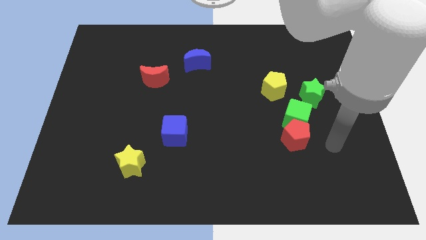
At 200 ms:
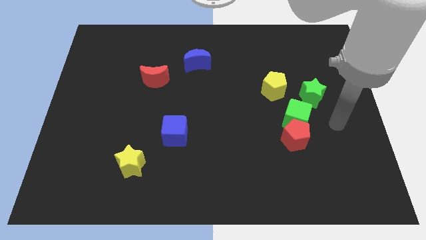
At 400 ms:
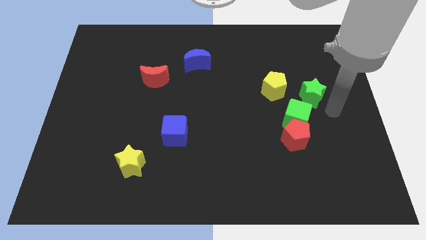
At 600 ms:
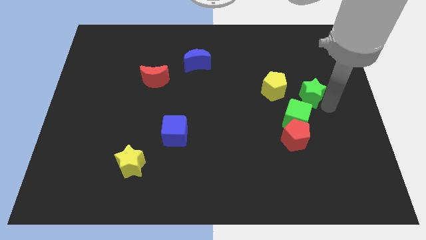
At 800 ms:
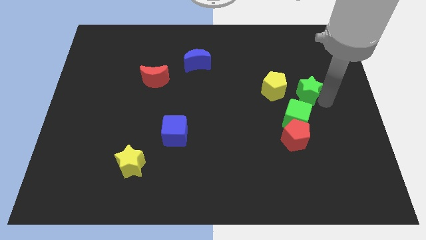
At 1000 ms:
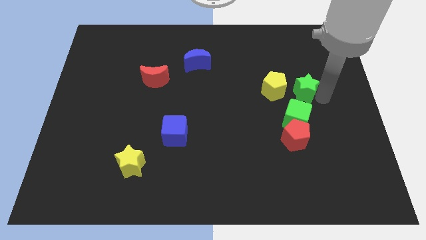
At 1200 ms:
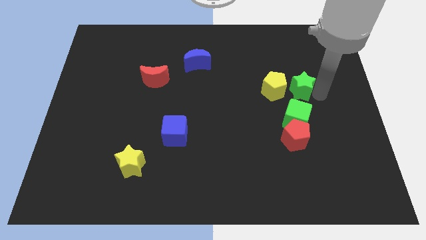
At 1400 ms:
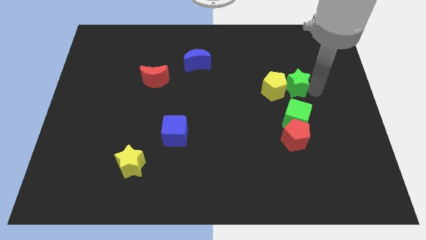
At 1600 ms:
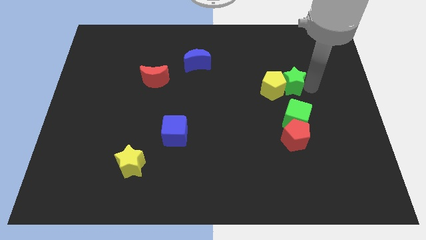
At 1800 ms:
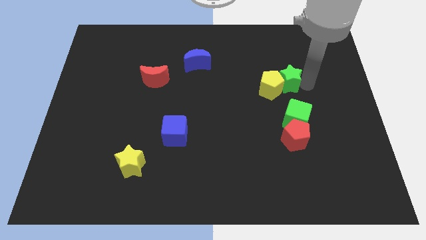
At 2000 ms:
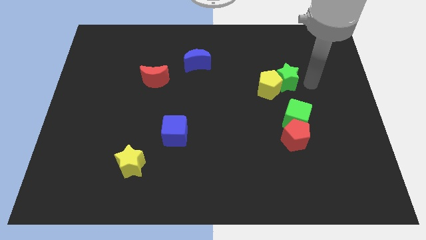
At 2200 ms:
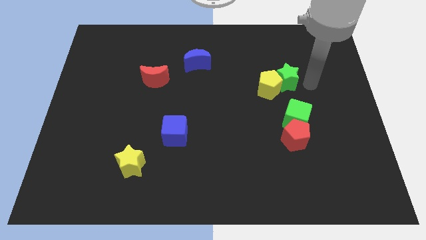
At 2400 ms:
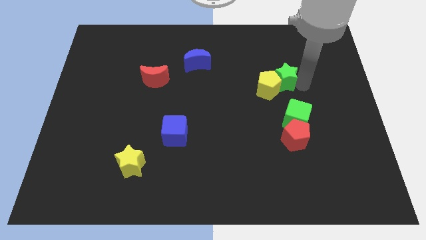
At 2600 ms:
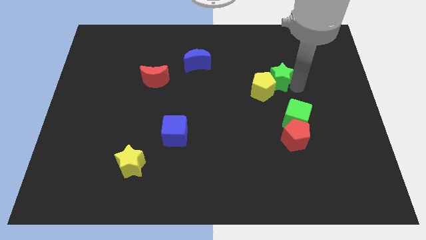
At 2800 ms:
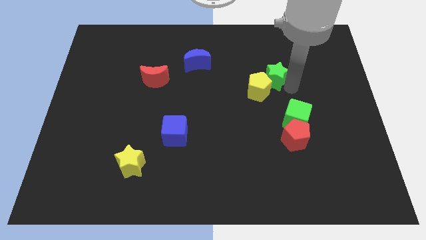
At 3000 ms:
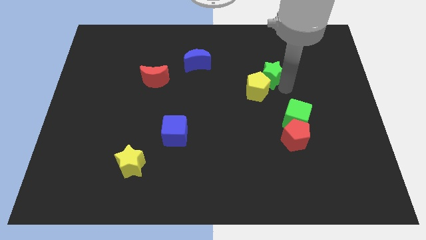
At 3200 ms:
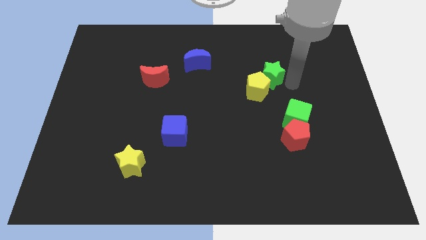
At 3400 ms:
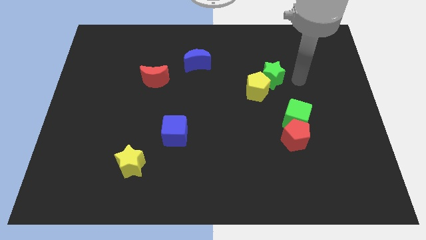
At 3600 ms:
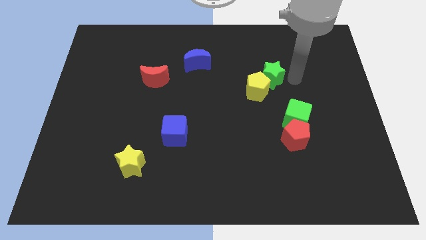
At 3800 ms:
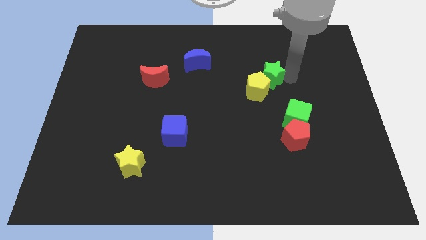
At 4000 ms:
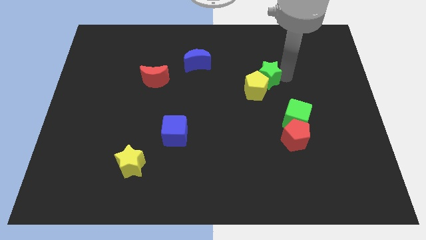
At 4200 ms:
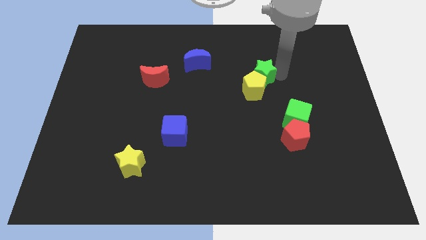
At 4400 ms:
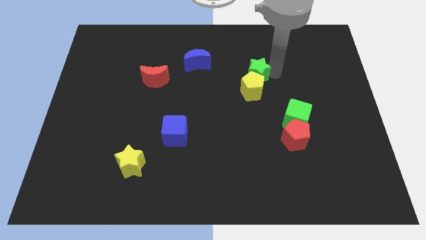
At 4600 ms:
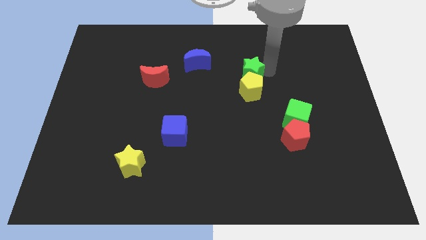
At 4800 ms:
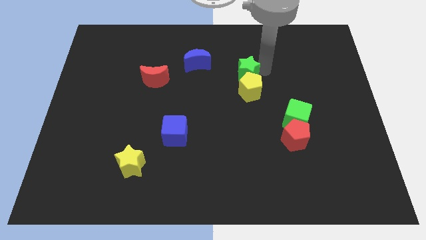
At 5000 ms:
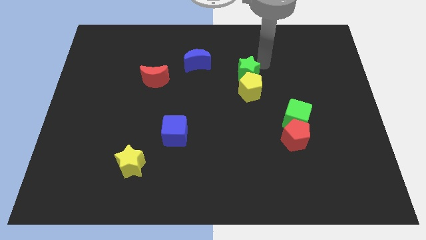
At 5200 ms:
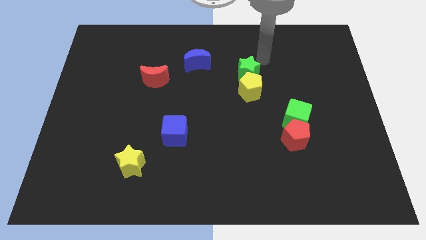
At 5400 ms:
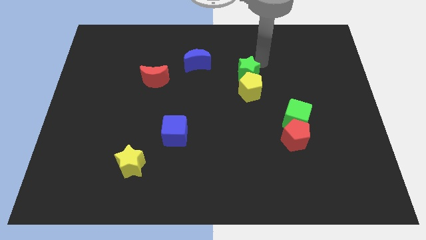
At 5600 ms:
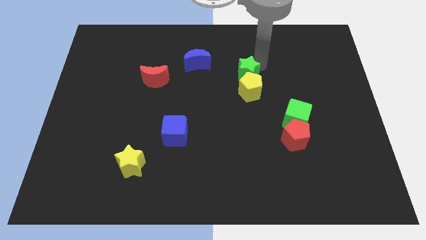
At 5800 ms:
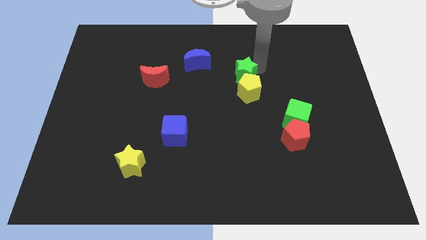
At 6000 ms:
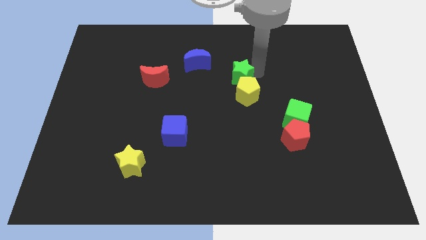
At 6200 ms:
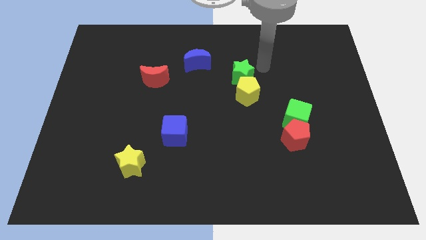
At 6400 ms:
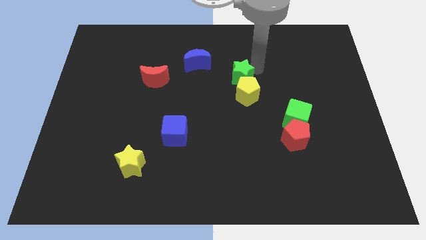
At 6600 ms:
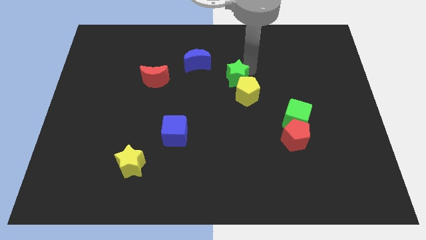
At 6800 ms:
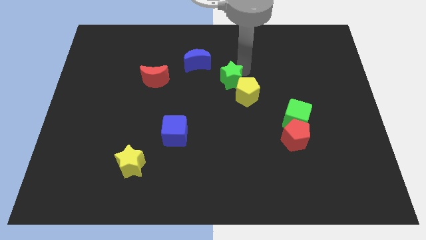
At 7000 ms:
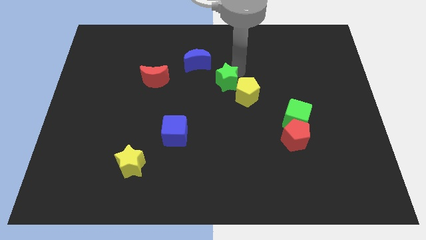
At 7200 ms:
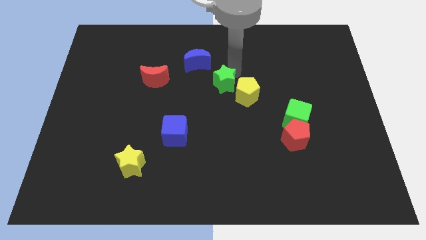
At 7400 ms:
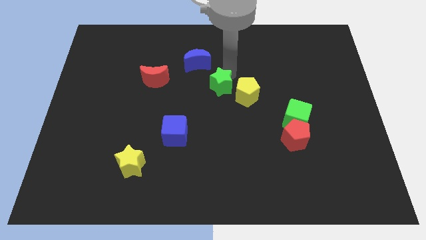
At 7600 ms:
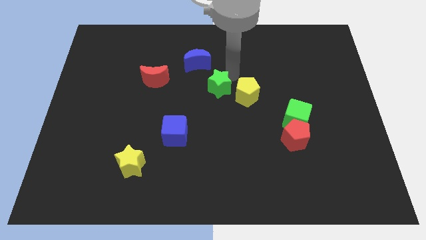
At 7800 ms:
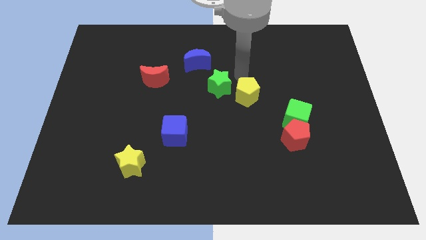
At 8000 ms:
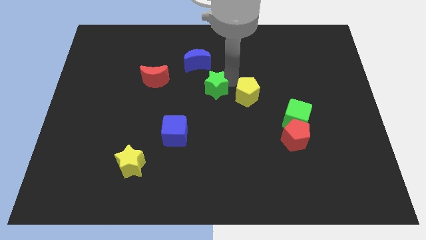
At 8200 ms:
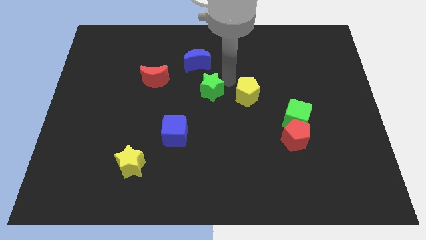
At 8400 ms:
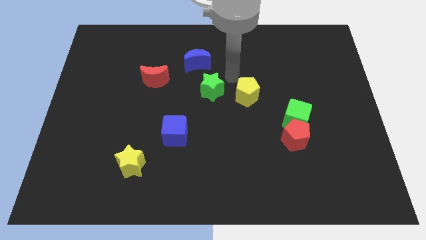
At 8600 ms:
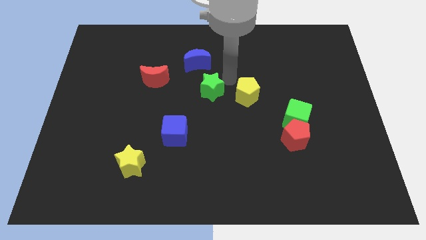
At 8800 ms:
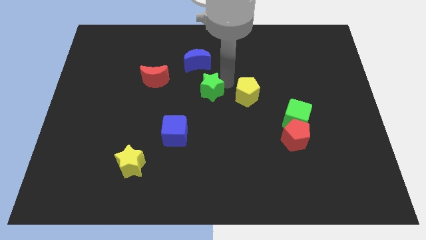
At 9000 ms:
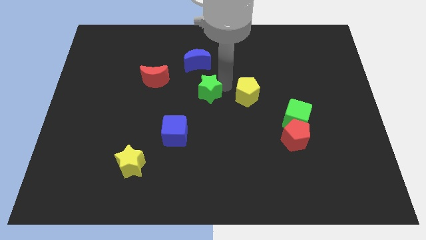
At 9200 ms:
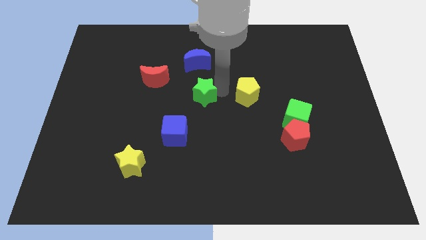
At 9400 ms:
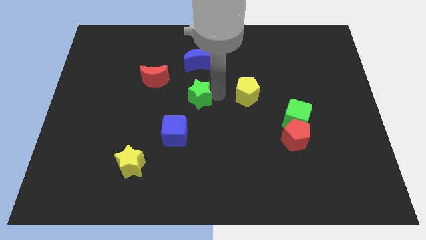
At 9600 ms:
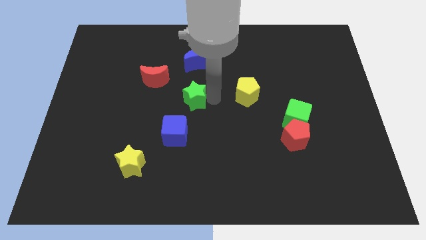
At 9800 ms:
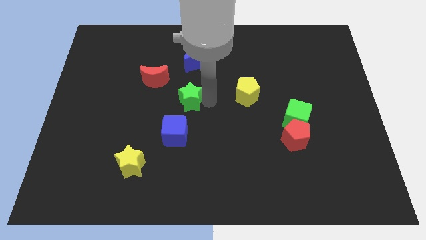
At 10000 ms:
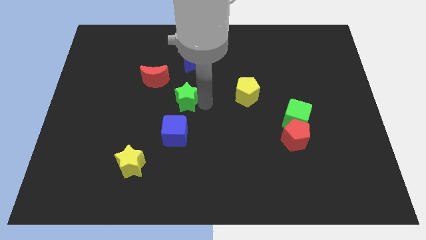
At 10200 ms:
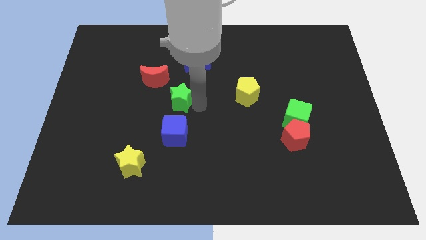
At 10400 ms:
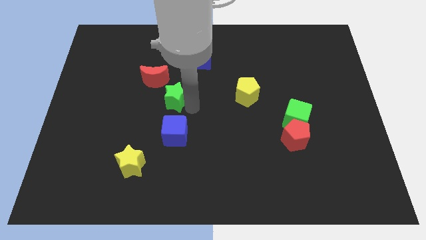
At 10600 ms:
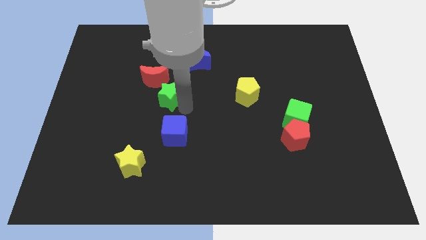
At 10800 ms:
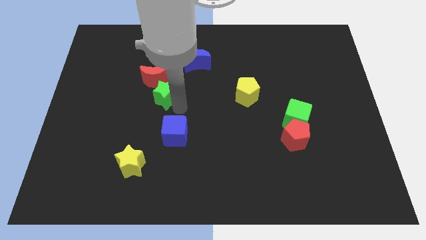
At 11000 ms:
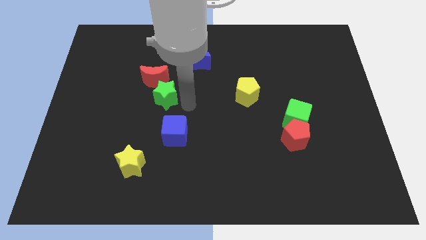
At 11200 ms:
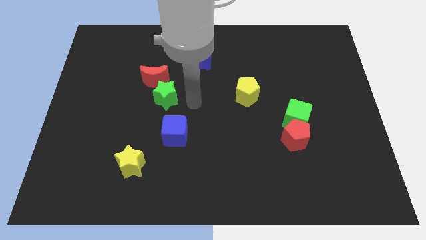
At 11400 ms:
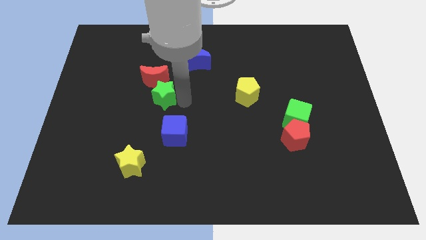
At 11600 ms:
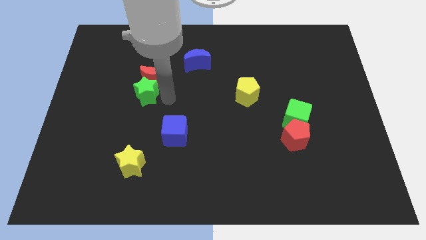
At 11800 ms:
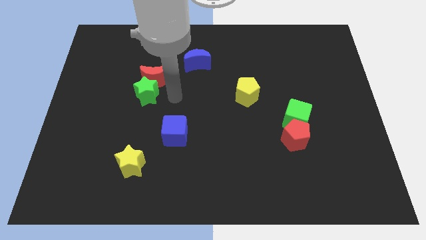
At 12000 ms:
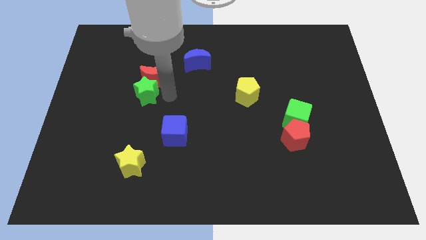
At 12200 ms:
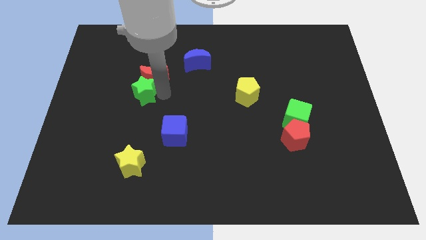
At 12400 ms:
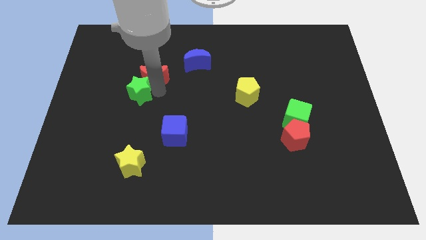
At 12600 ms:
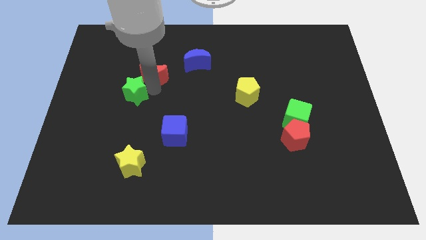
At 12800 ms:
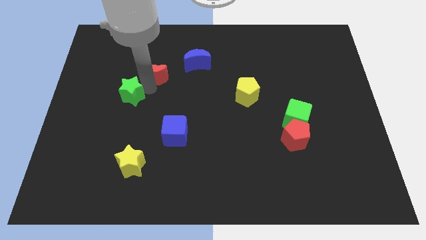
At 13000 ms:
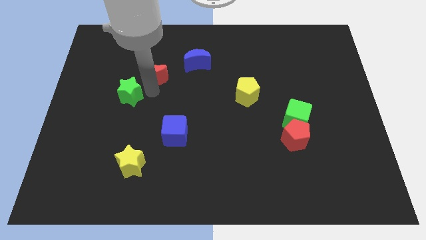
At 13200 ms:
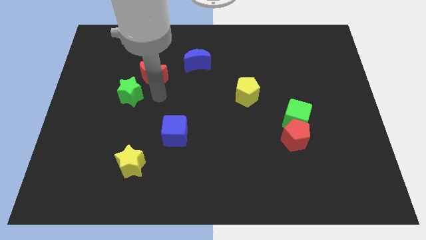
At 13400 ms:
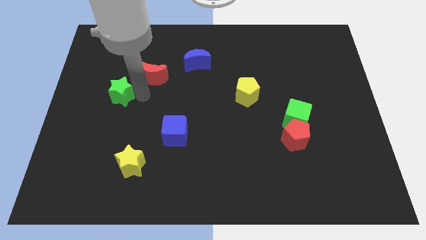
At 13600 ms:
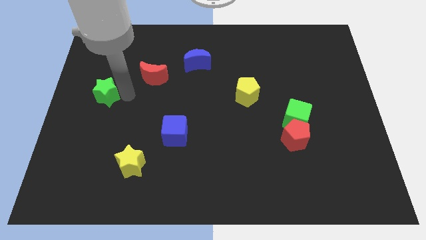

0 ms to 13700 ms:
slide the green star to the left side of the board

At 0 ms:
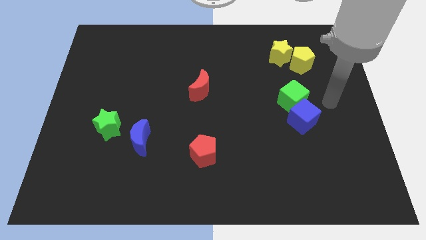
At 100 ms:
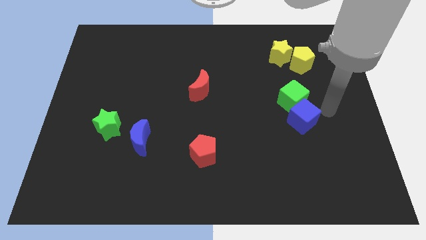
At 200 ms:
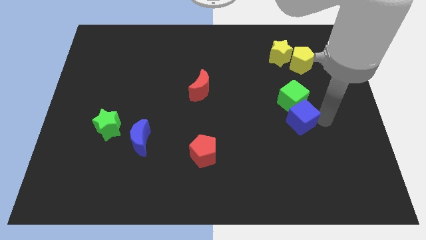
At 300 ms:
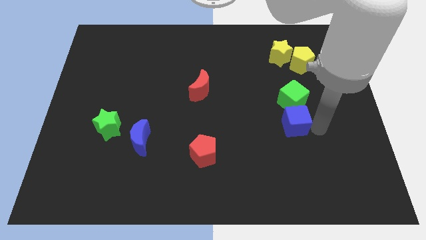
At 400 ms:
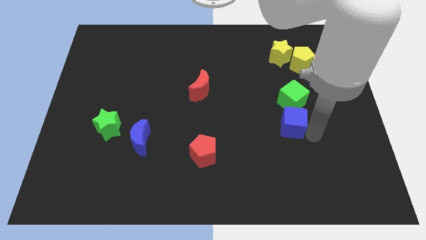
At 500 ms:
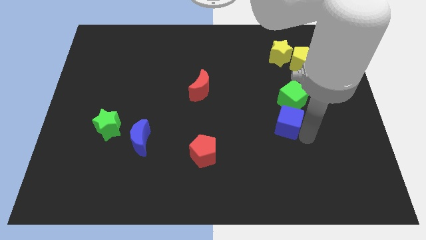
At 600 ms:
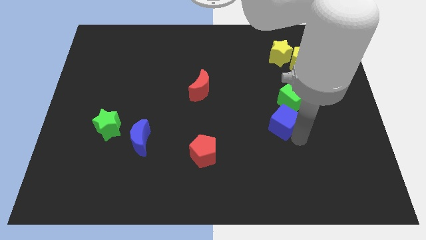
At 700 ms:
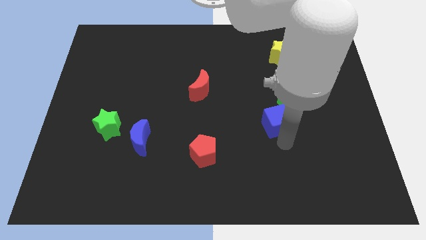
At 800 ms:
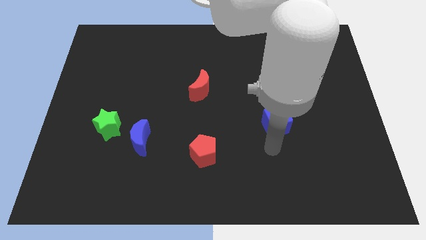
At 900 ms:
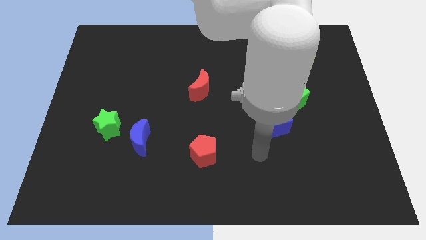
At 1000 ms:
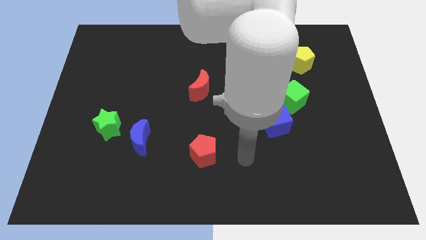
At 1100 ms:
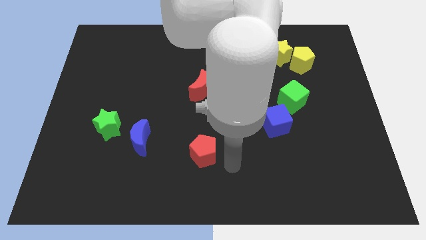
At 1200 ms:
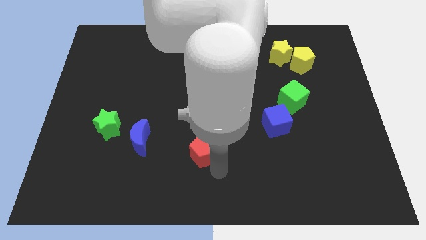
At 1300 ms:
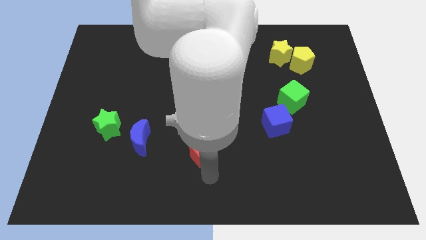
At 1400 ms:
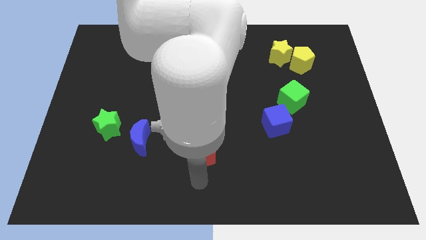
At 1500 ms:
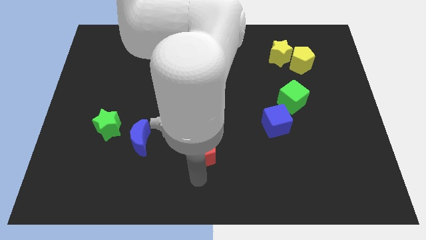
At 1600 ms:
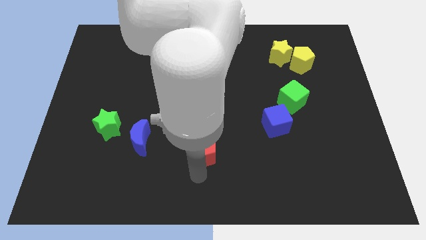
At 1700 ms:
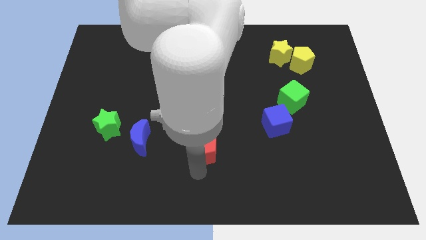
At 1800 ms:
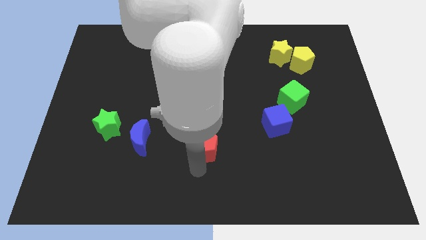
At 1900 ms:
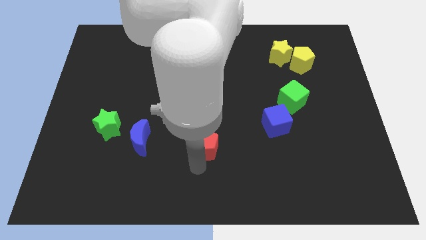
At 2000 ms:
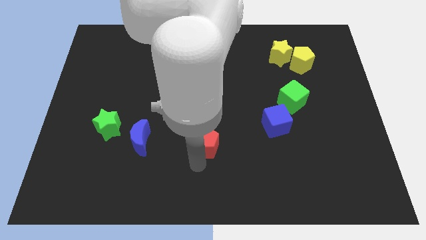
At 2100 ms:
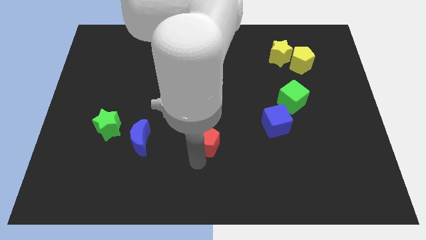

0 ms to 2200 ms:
push the red pentagon to the center of the board
